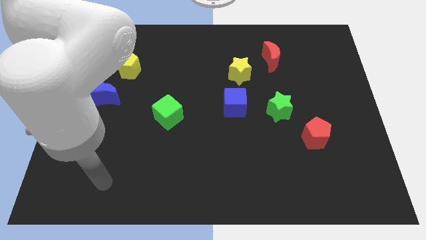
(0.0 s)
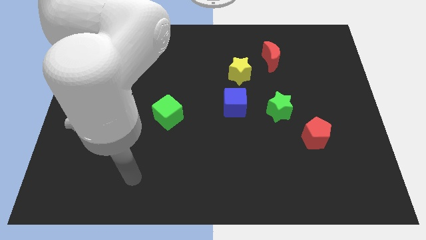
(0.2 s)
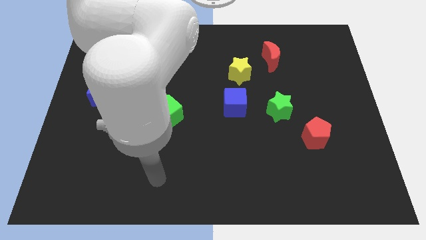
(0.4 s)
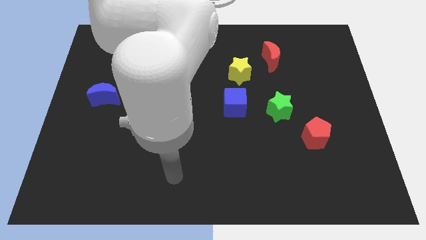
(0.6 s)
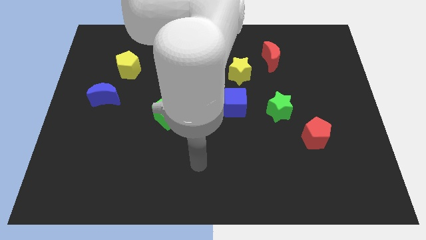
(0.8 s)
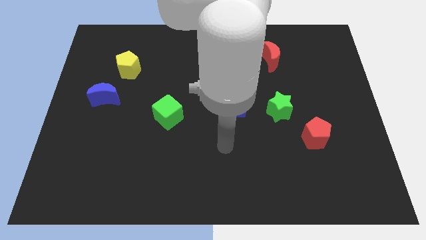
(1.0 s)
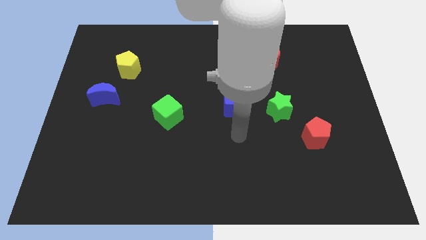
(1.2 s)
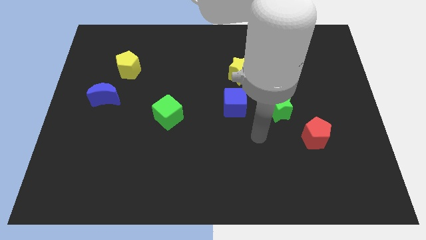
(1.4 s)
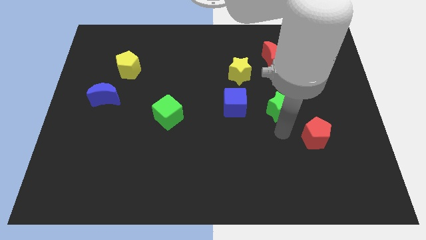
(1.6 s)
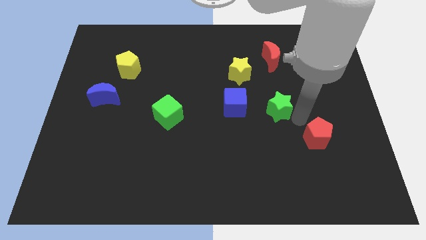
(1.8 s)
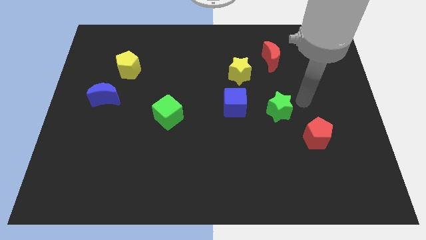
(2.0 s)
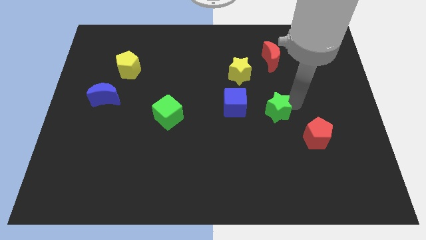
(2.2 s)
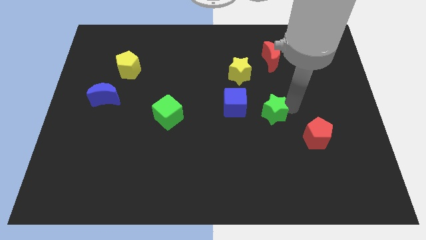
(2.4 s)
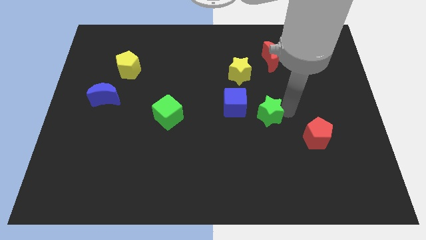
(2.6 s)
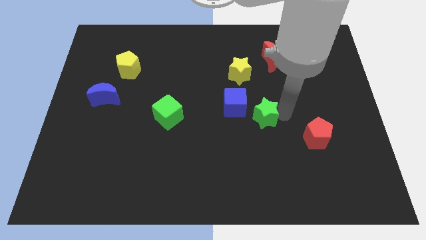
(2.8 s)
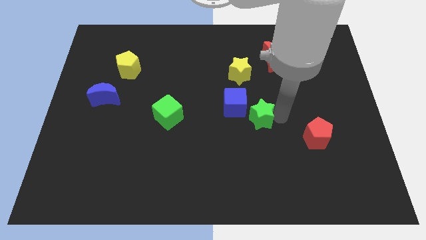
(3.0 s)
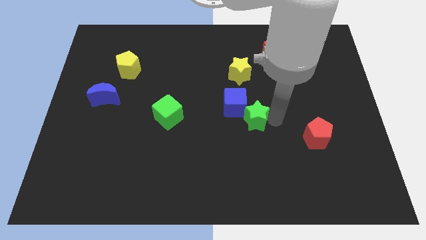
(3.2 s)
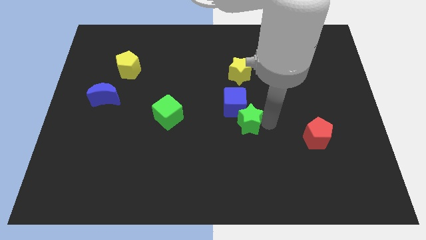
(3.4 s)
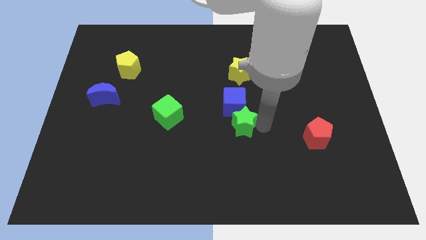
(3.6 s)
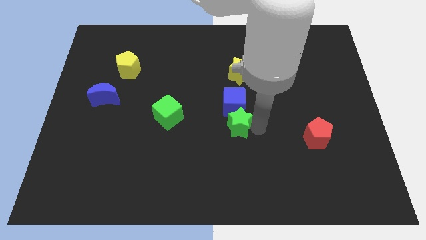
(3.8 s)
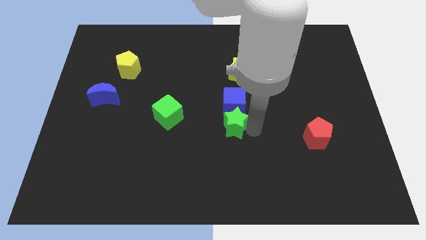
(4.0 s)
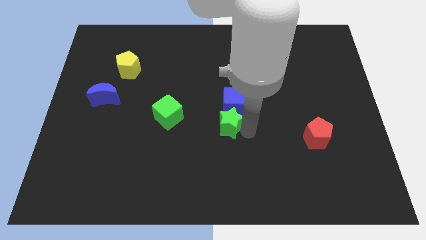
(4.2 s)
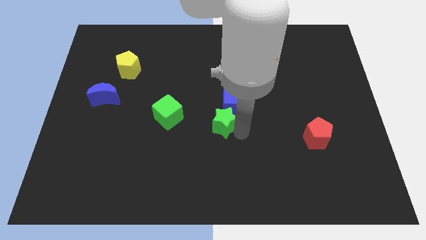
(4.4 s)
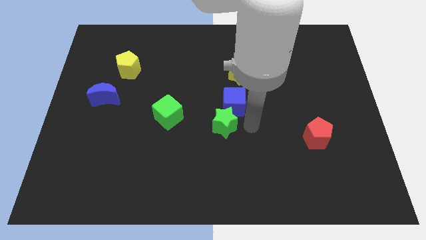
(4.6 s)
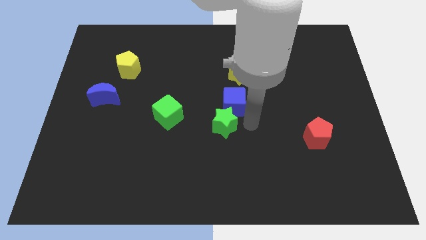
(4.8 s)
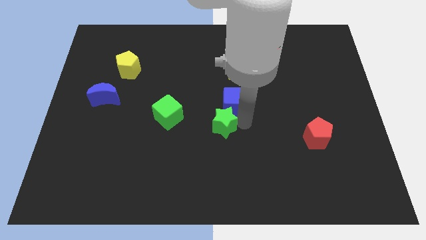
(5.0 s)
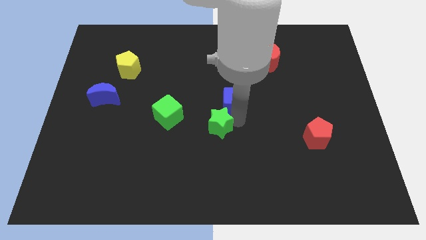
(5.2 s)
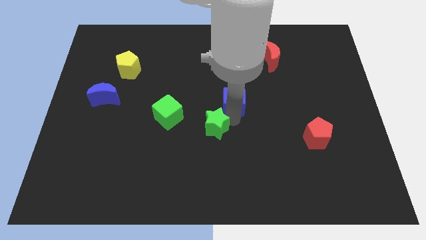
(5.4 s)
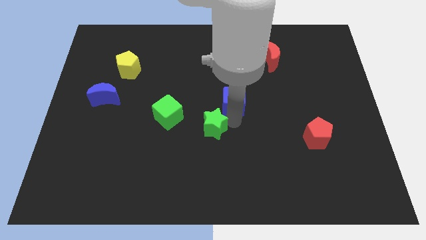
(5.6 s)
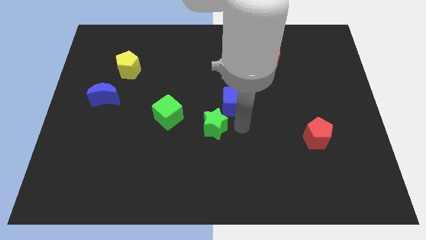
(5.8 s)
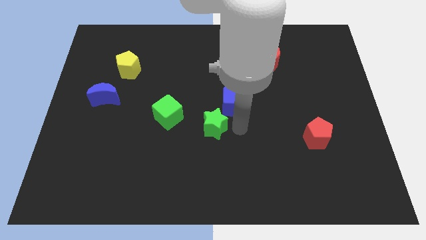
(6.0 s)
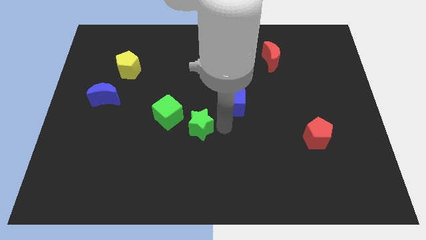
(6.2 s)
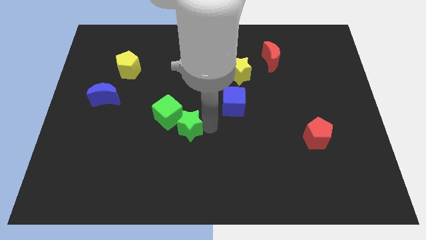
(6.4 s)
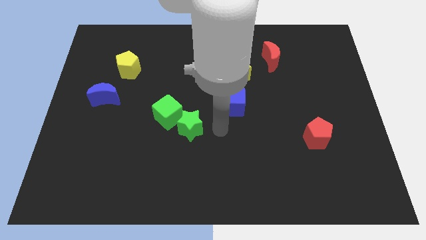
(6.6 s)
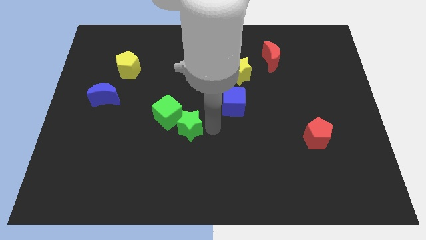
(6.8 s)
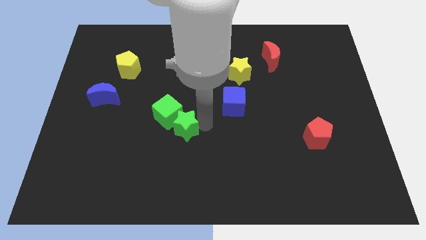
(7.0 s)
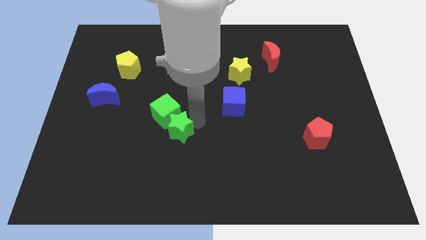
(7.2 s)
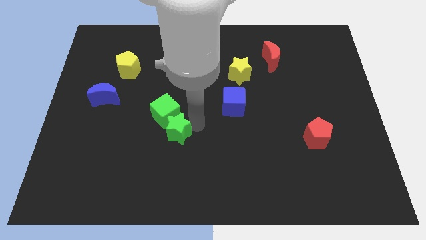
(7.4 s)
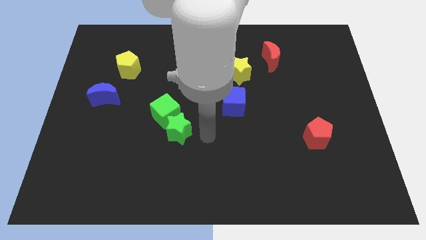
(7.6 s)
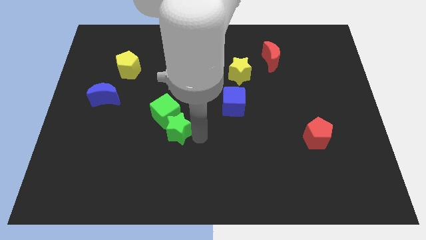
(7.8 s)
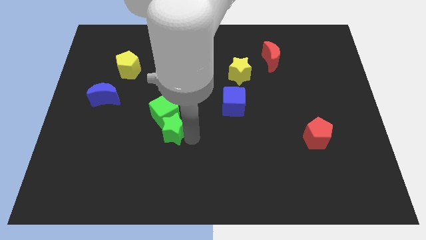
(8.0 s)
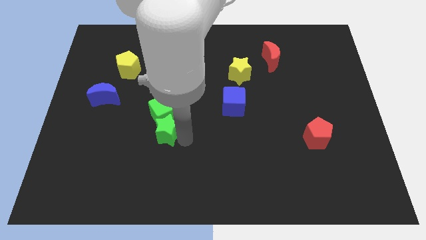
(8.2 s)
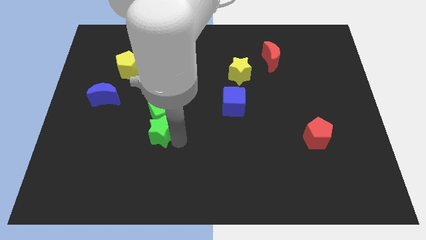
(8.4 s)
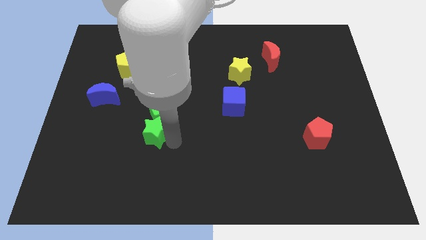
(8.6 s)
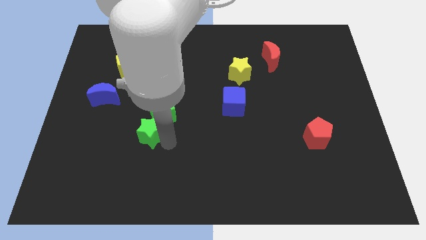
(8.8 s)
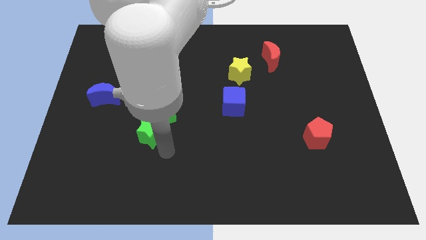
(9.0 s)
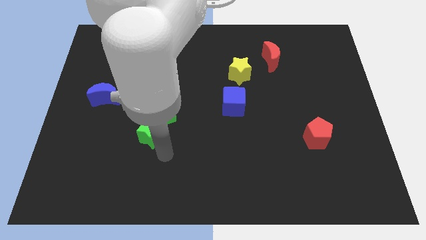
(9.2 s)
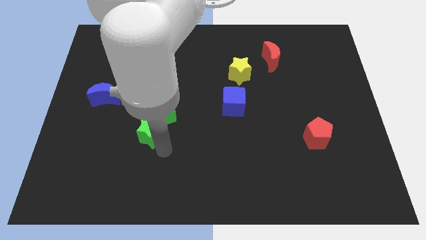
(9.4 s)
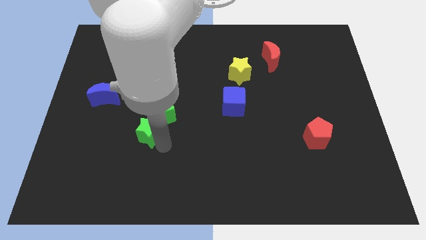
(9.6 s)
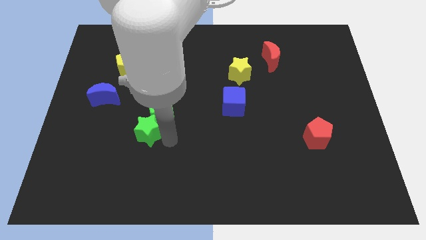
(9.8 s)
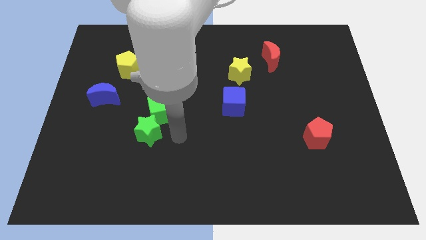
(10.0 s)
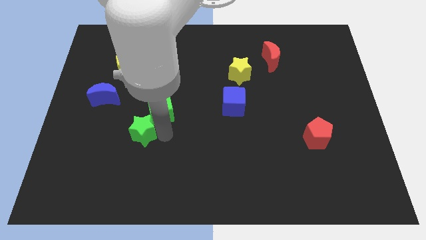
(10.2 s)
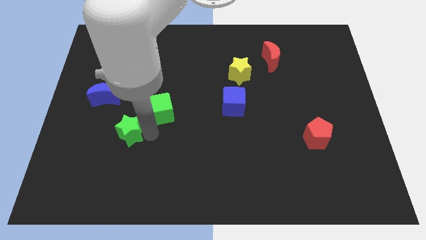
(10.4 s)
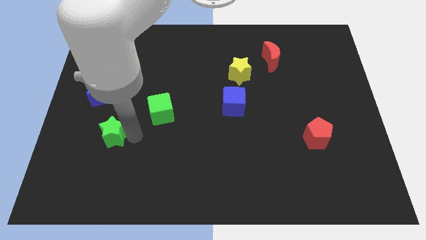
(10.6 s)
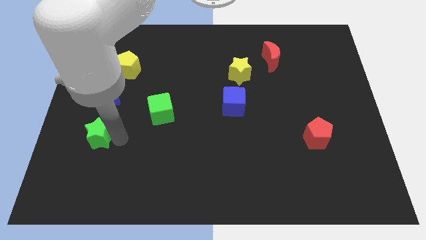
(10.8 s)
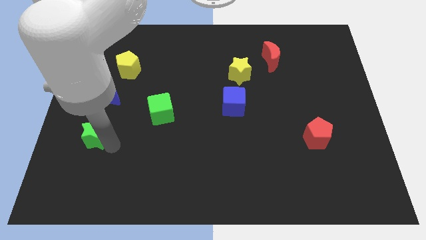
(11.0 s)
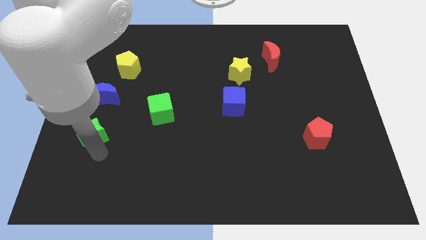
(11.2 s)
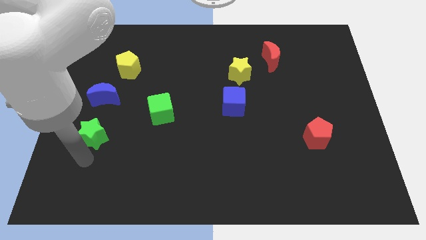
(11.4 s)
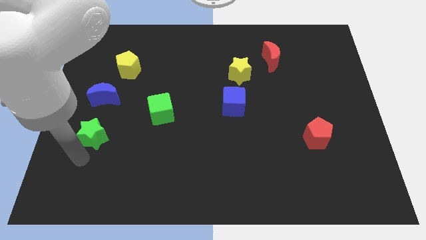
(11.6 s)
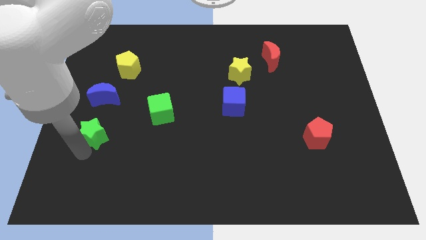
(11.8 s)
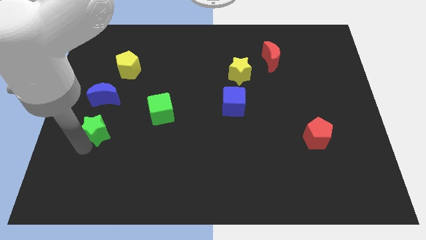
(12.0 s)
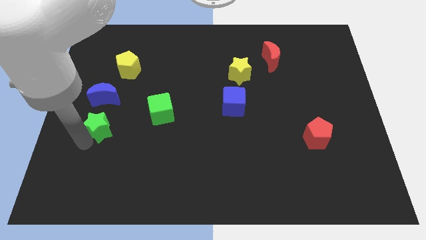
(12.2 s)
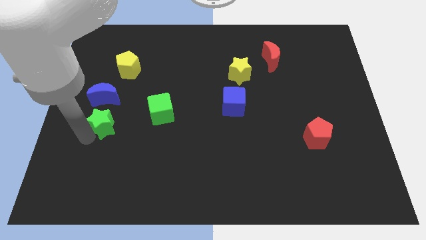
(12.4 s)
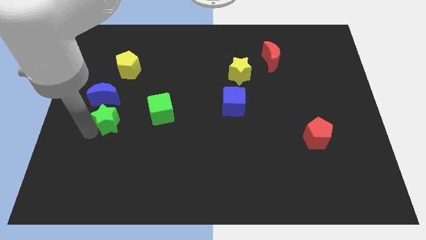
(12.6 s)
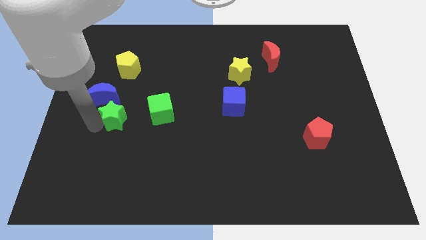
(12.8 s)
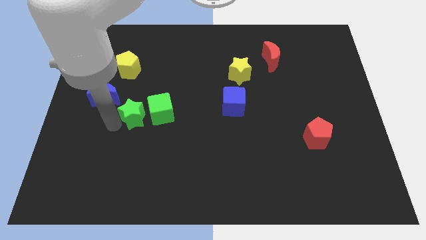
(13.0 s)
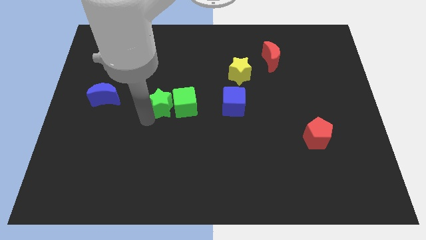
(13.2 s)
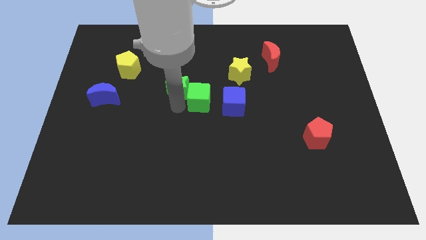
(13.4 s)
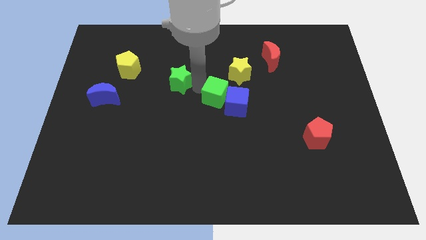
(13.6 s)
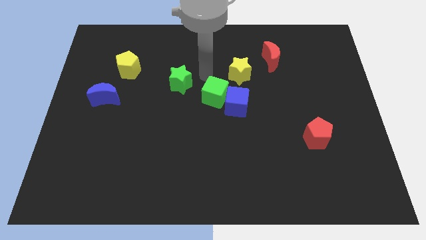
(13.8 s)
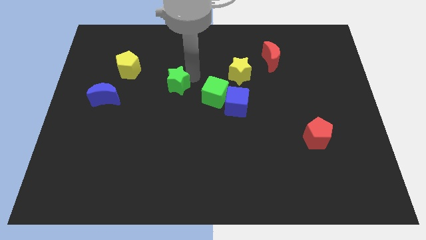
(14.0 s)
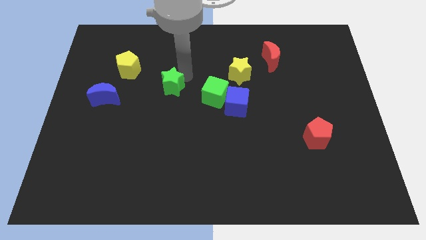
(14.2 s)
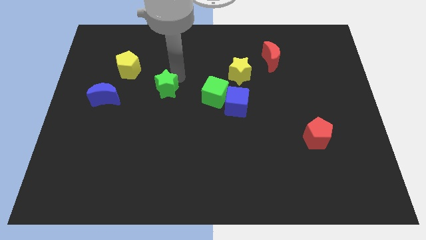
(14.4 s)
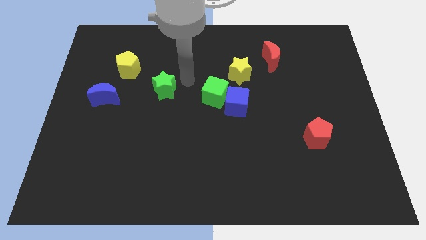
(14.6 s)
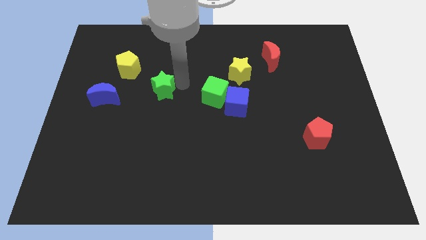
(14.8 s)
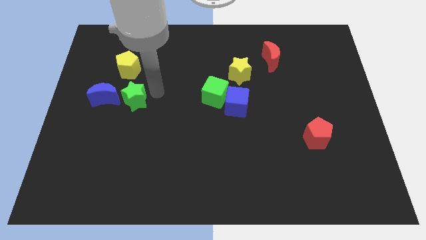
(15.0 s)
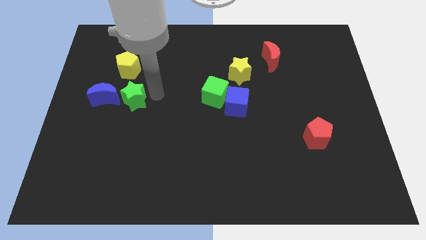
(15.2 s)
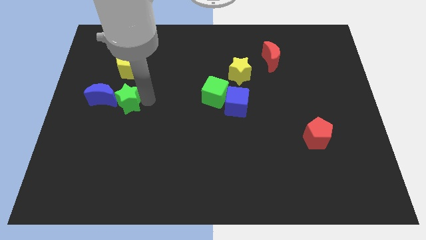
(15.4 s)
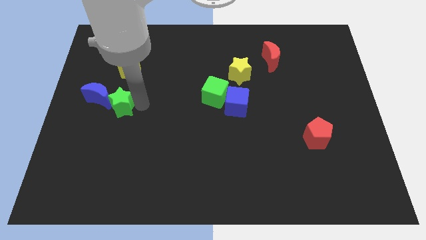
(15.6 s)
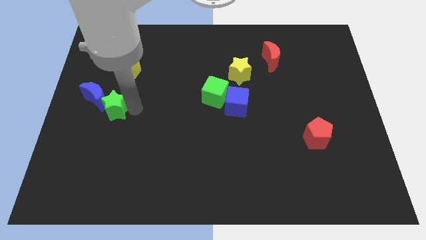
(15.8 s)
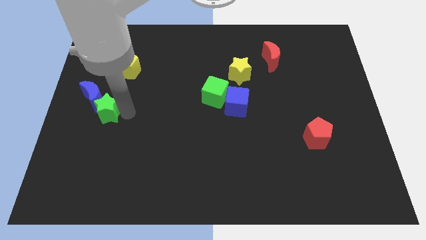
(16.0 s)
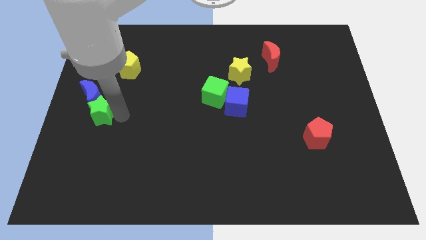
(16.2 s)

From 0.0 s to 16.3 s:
put the green star to the left side of the board
